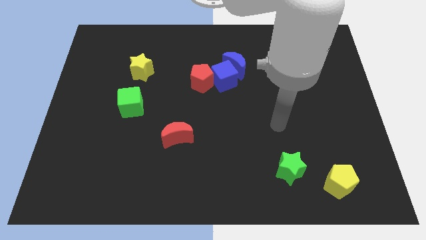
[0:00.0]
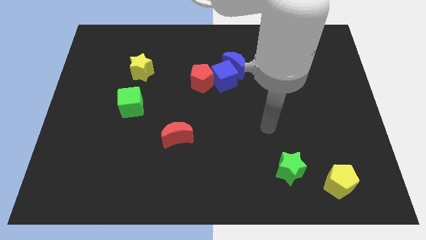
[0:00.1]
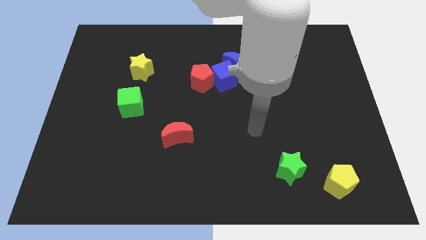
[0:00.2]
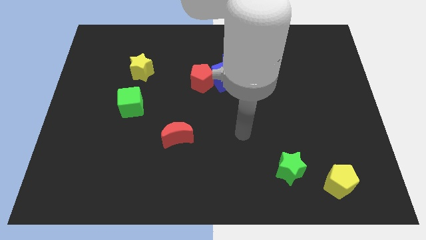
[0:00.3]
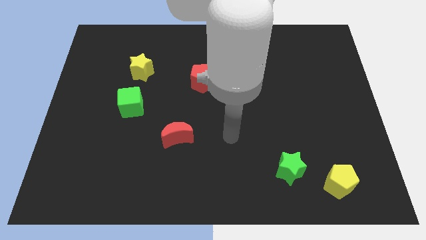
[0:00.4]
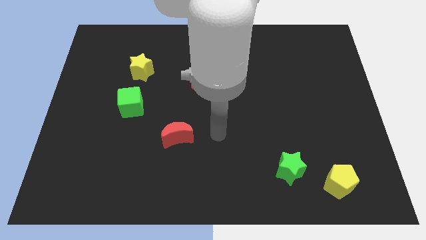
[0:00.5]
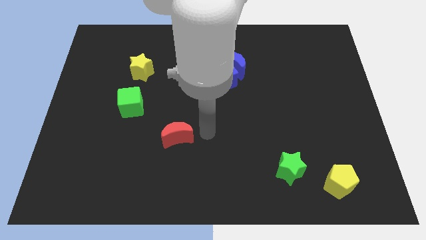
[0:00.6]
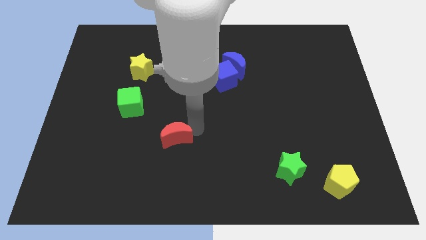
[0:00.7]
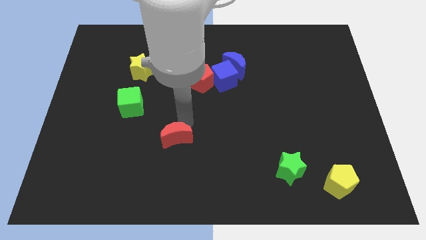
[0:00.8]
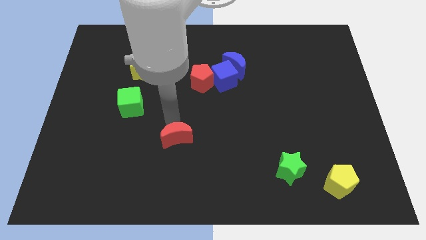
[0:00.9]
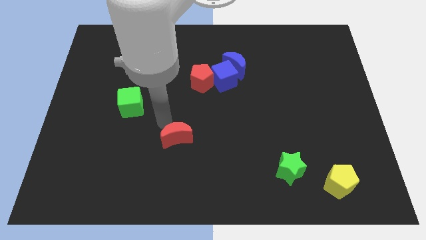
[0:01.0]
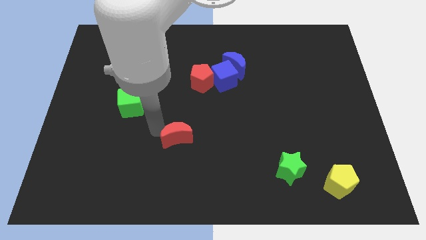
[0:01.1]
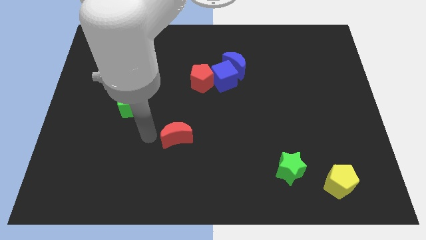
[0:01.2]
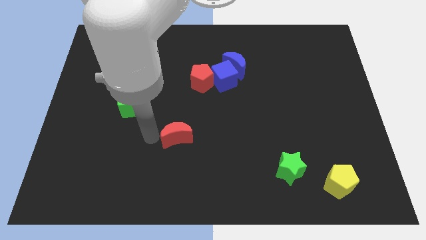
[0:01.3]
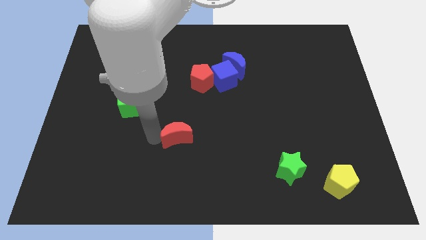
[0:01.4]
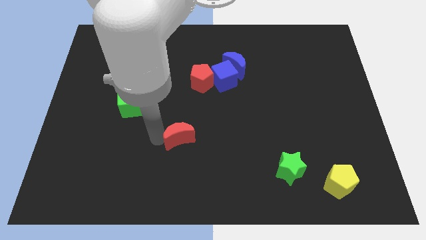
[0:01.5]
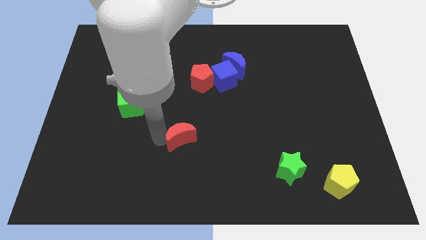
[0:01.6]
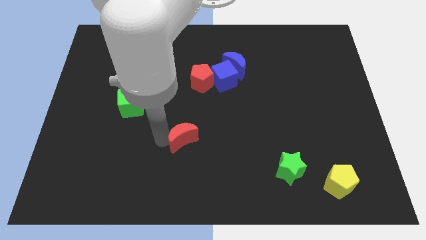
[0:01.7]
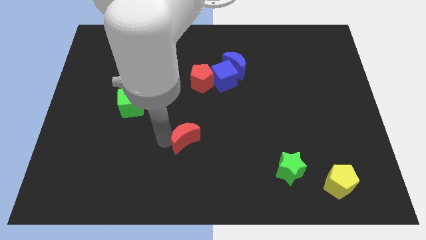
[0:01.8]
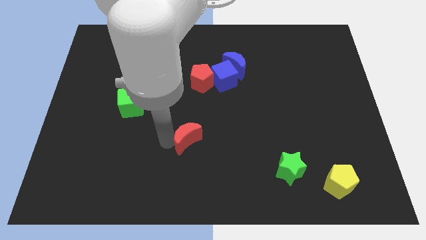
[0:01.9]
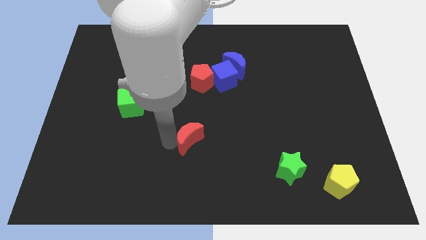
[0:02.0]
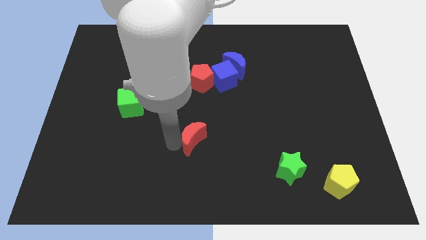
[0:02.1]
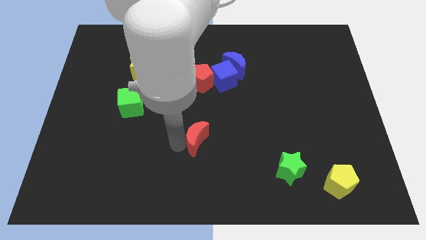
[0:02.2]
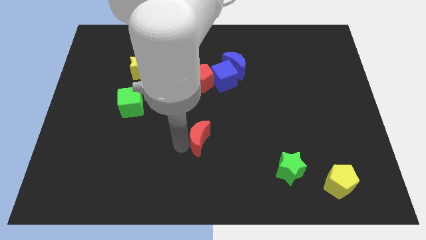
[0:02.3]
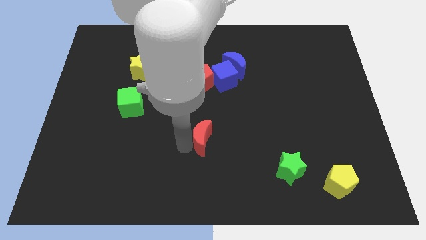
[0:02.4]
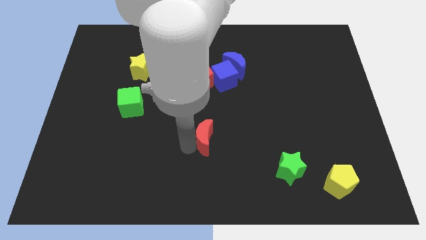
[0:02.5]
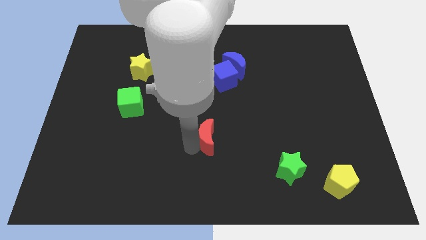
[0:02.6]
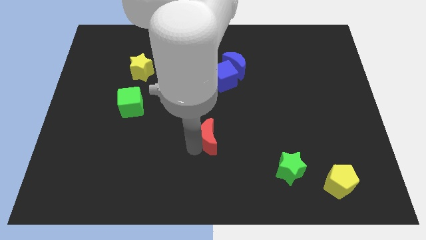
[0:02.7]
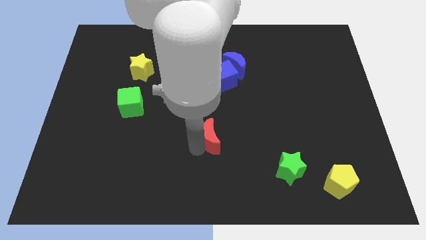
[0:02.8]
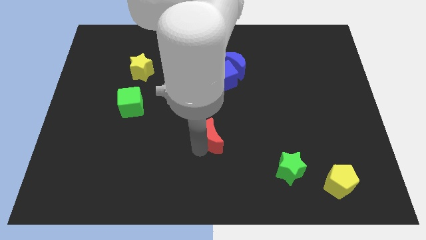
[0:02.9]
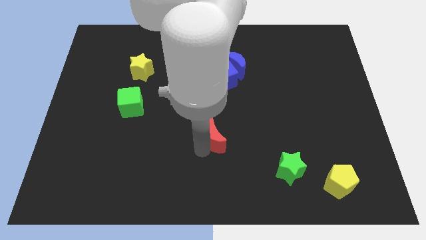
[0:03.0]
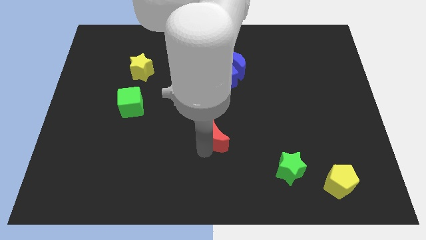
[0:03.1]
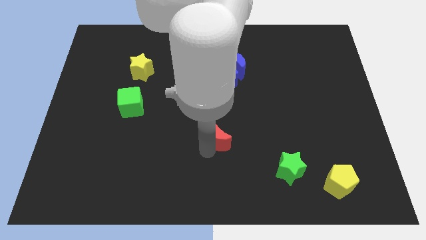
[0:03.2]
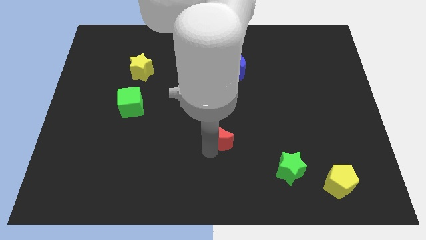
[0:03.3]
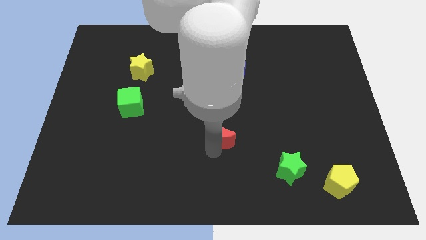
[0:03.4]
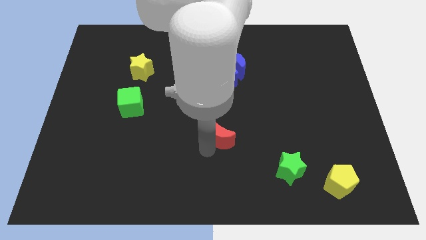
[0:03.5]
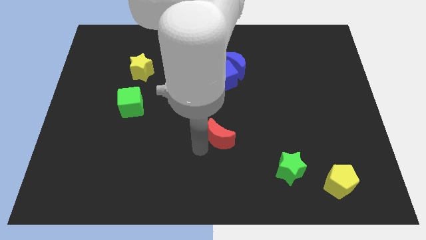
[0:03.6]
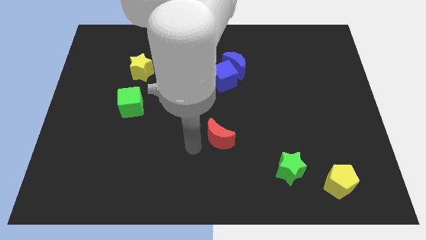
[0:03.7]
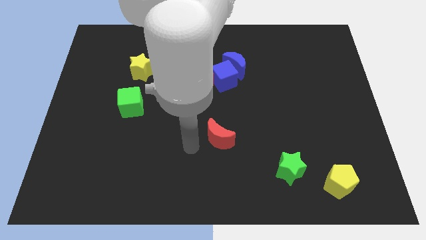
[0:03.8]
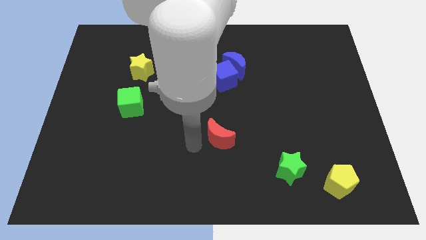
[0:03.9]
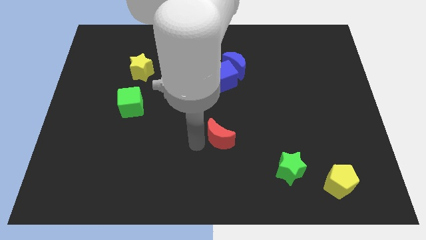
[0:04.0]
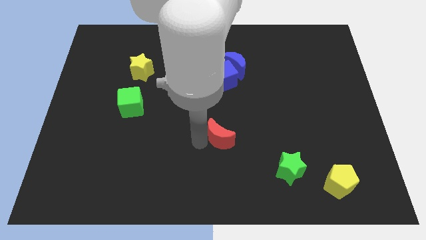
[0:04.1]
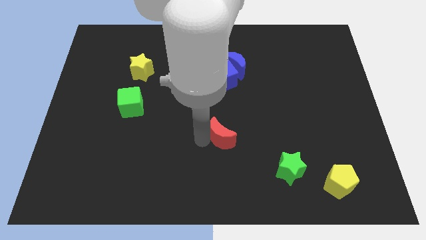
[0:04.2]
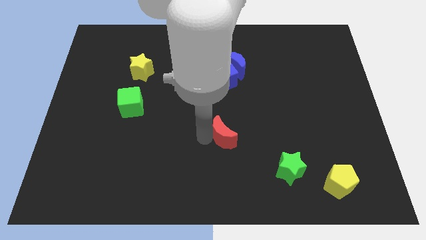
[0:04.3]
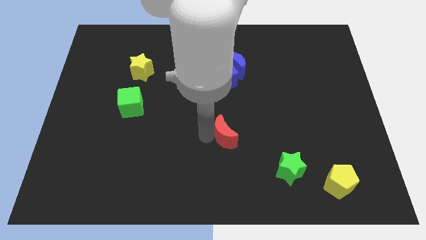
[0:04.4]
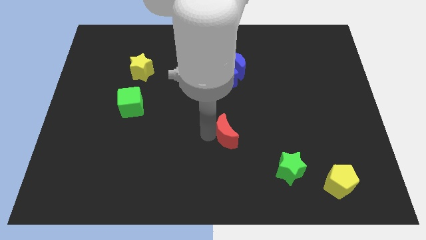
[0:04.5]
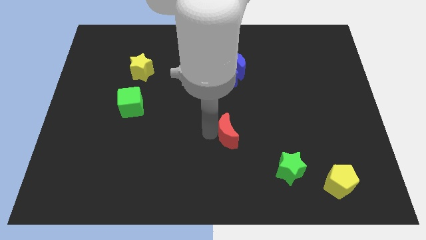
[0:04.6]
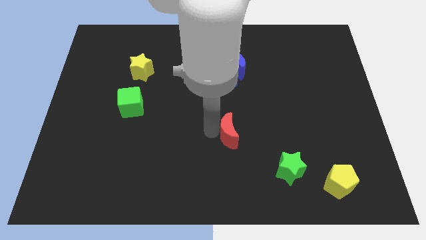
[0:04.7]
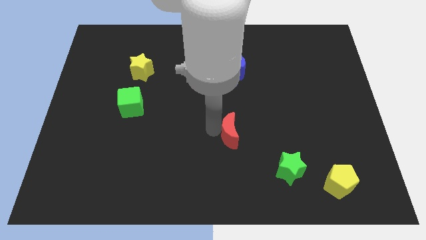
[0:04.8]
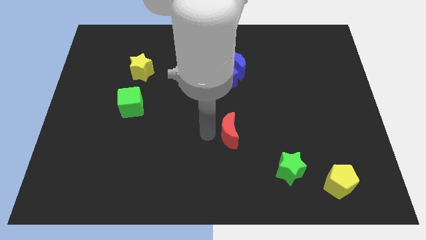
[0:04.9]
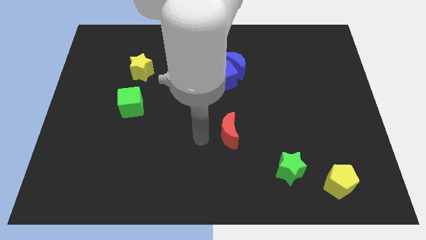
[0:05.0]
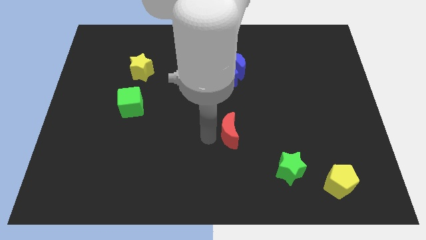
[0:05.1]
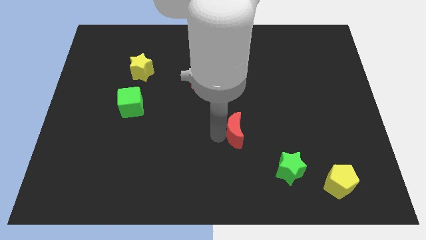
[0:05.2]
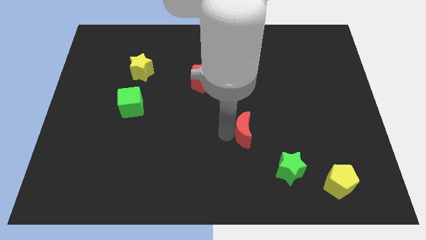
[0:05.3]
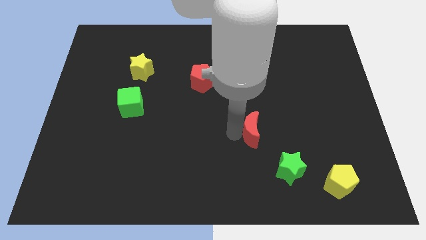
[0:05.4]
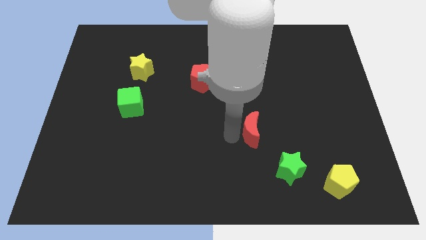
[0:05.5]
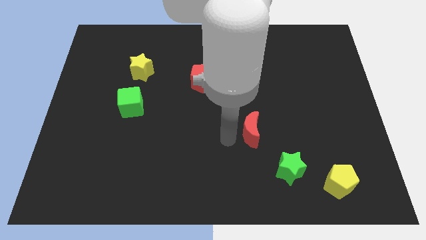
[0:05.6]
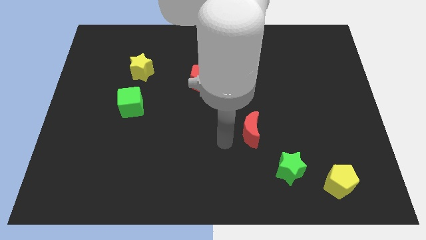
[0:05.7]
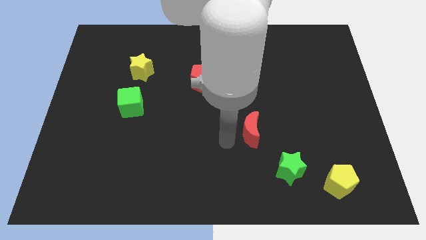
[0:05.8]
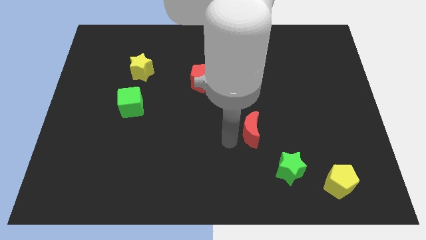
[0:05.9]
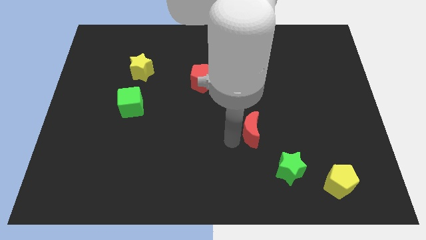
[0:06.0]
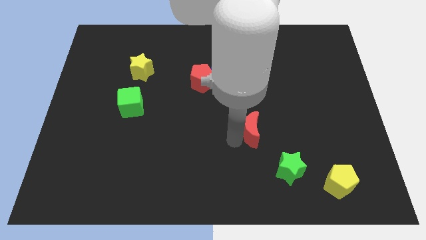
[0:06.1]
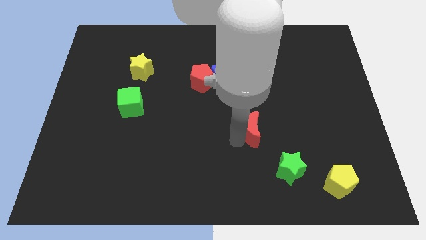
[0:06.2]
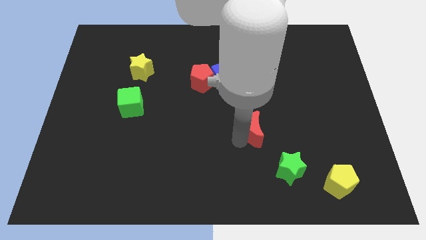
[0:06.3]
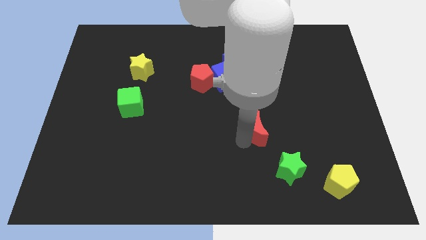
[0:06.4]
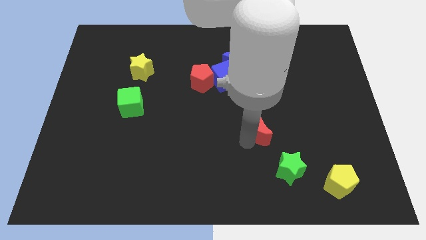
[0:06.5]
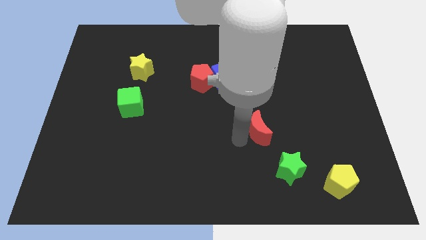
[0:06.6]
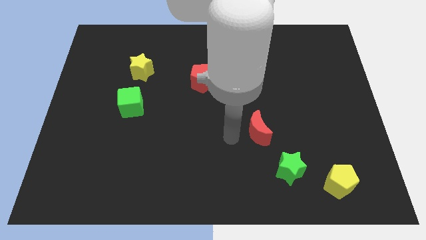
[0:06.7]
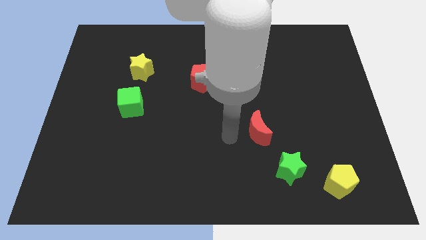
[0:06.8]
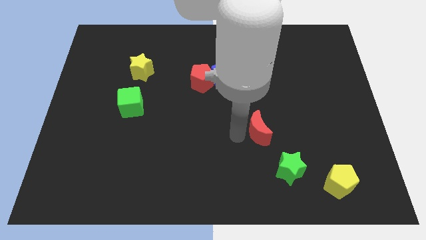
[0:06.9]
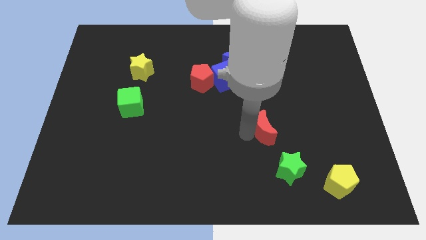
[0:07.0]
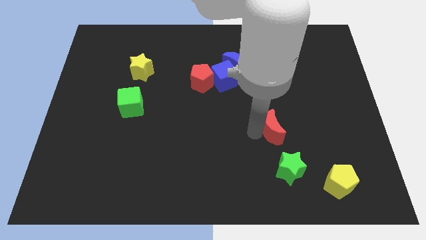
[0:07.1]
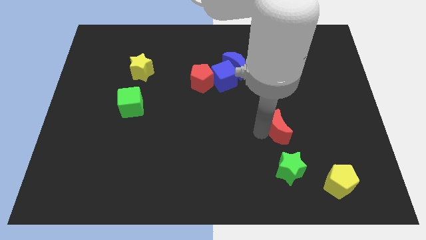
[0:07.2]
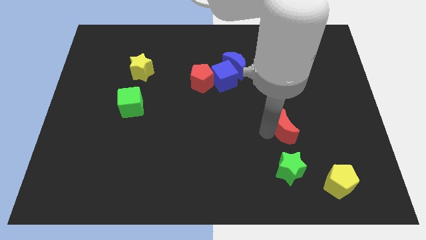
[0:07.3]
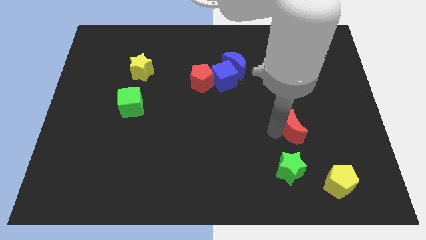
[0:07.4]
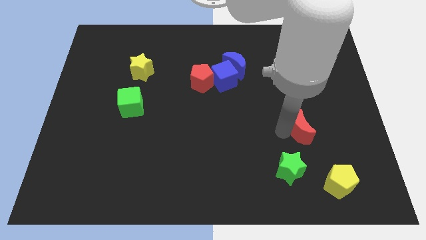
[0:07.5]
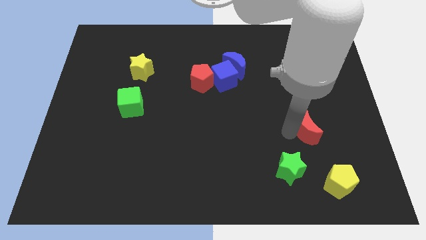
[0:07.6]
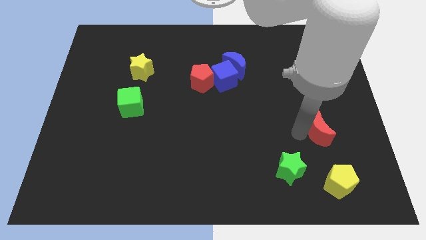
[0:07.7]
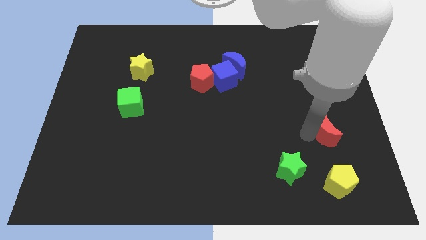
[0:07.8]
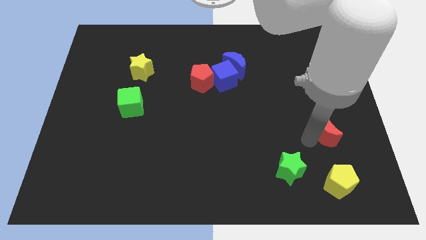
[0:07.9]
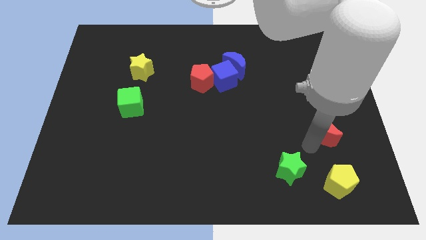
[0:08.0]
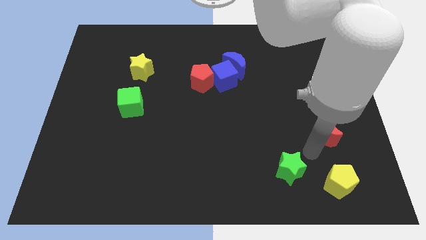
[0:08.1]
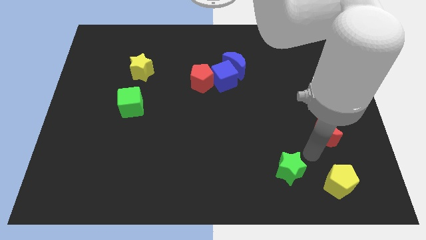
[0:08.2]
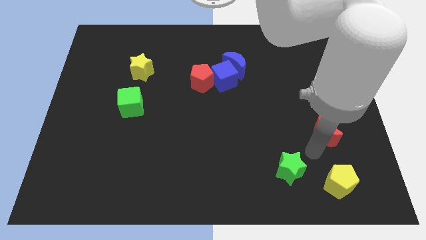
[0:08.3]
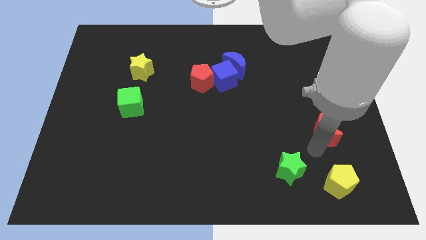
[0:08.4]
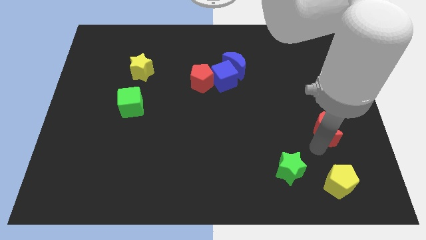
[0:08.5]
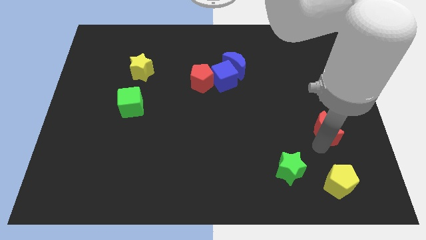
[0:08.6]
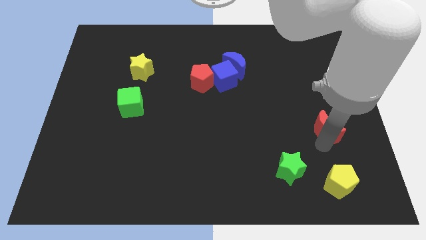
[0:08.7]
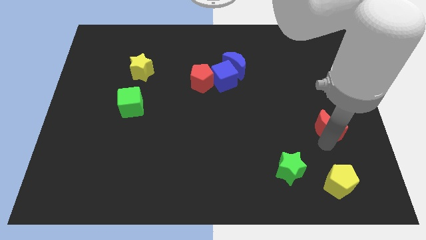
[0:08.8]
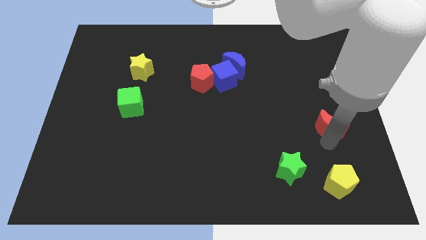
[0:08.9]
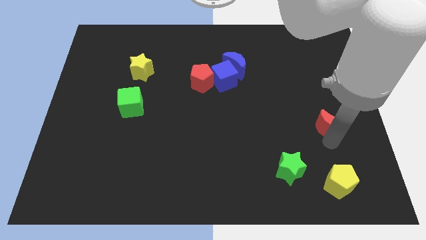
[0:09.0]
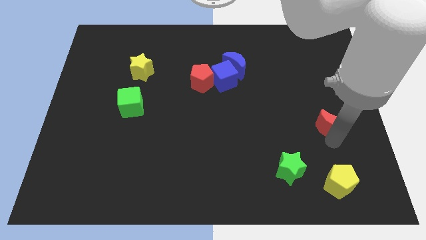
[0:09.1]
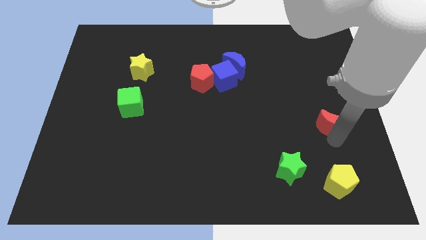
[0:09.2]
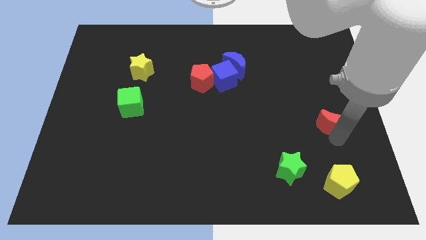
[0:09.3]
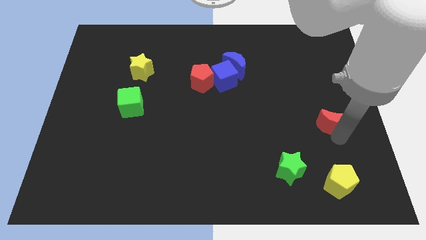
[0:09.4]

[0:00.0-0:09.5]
put the red moon to the right side of the board
